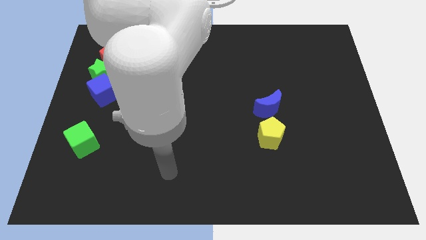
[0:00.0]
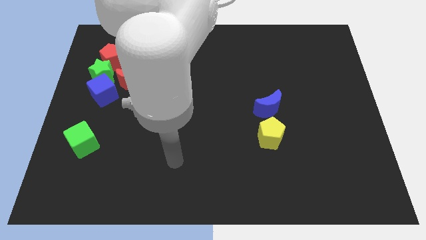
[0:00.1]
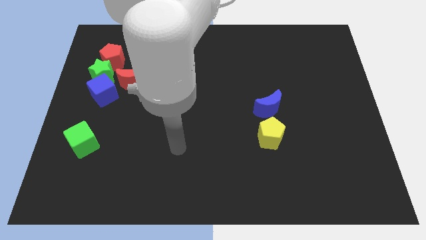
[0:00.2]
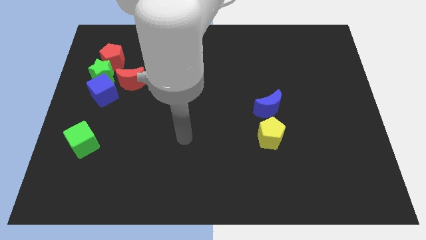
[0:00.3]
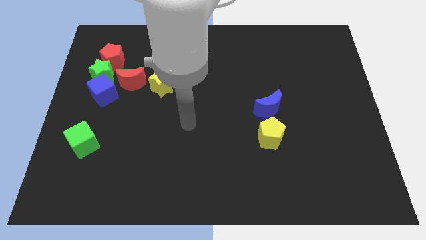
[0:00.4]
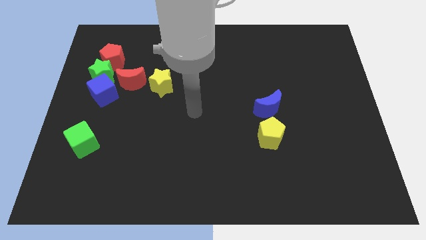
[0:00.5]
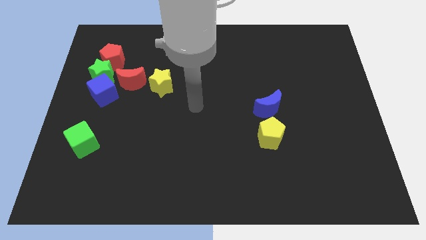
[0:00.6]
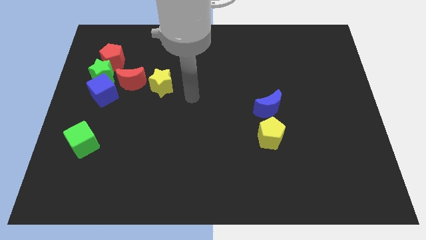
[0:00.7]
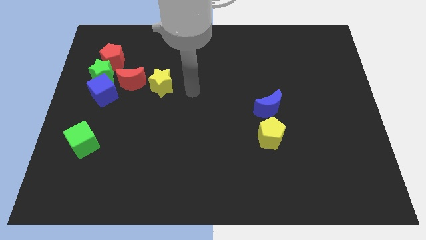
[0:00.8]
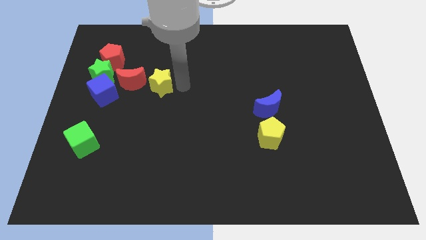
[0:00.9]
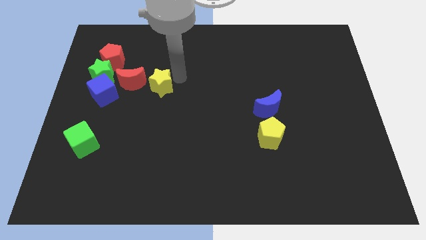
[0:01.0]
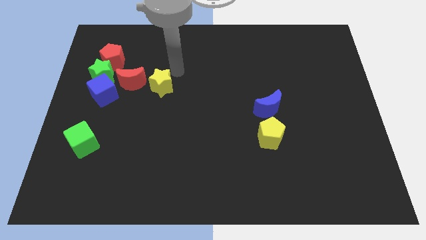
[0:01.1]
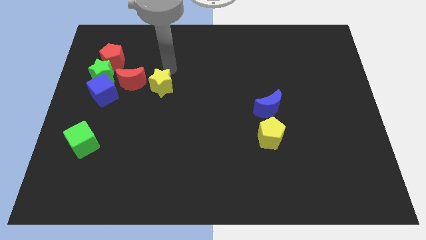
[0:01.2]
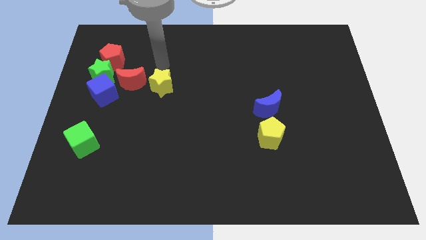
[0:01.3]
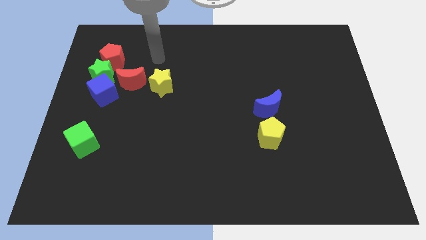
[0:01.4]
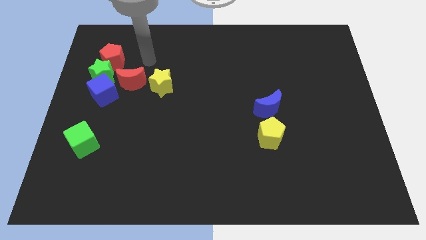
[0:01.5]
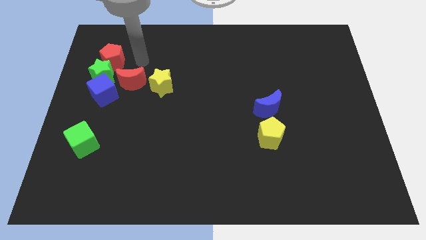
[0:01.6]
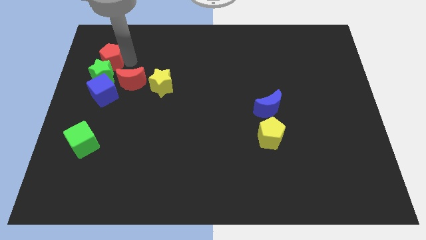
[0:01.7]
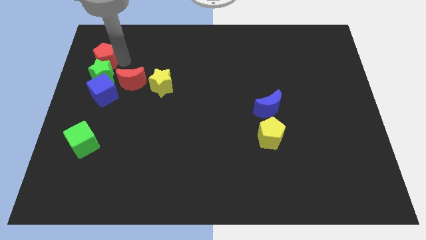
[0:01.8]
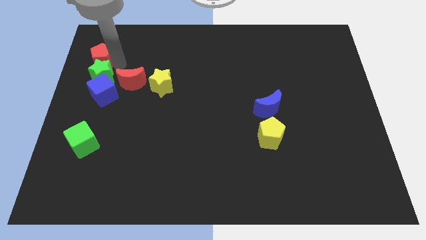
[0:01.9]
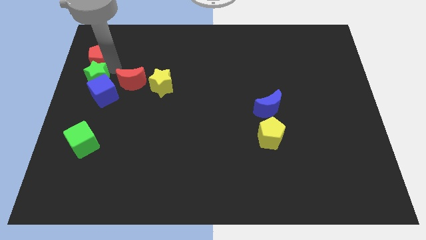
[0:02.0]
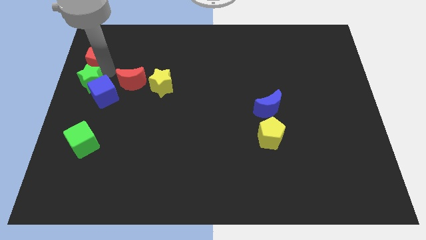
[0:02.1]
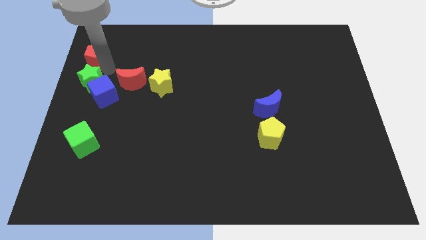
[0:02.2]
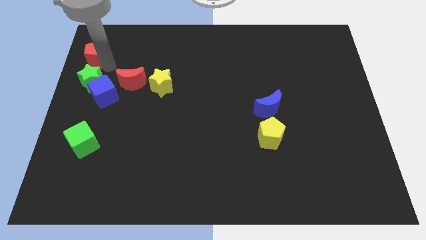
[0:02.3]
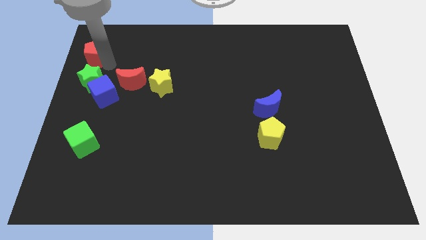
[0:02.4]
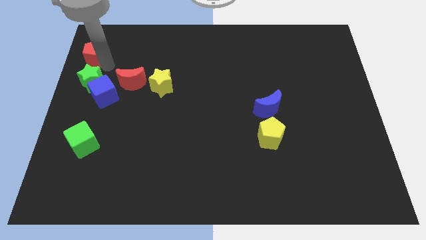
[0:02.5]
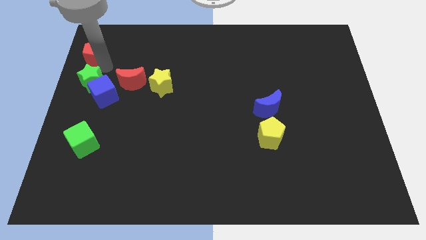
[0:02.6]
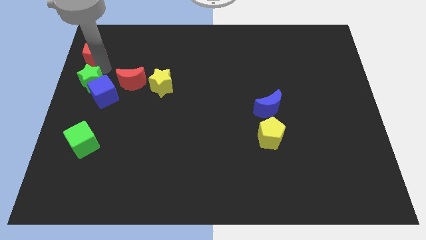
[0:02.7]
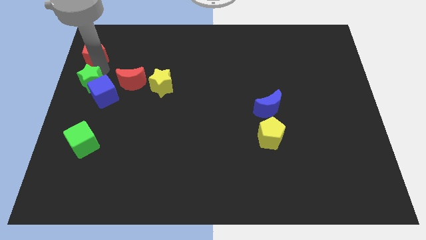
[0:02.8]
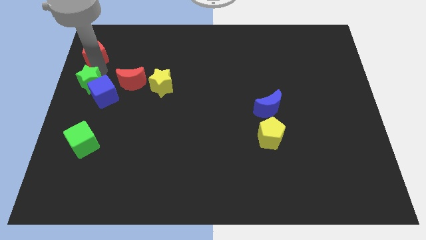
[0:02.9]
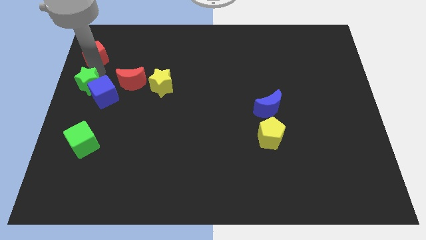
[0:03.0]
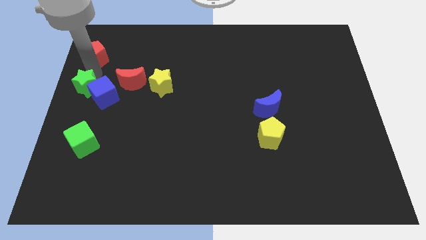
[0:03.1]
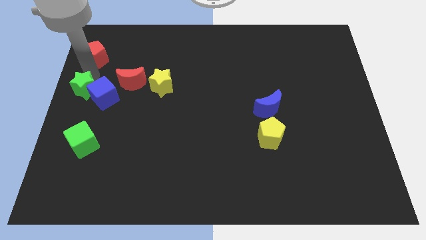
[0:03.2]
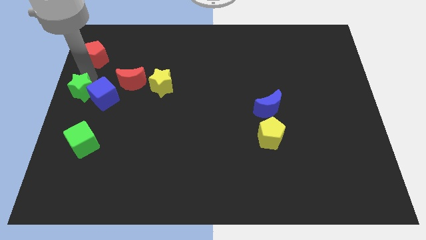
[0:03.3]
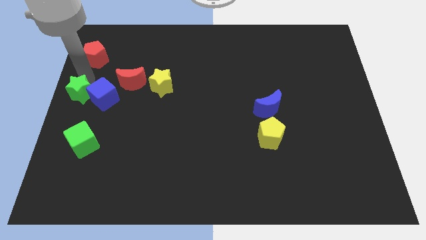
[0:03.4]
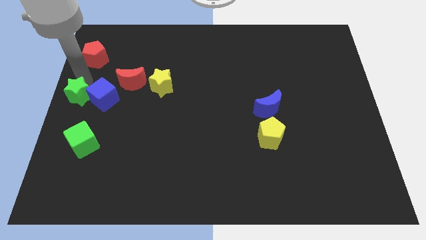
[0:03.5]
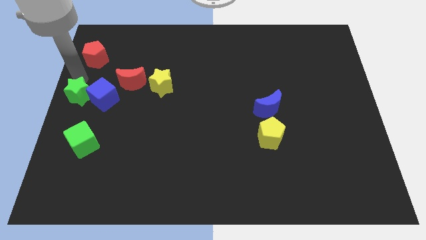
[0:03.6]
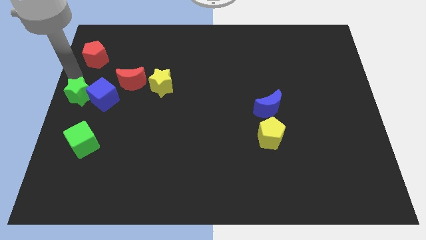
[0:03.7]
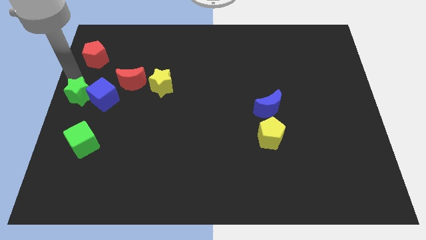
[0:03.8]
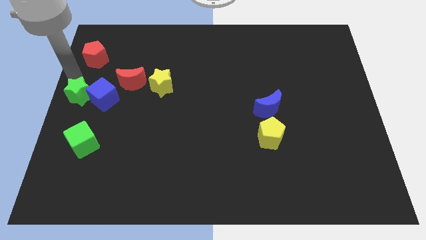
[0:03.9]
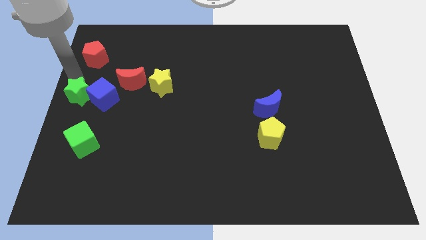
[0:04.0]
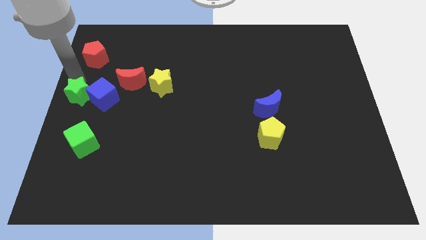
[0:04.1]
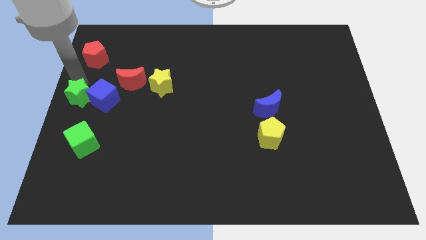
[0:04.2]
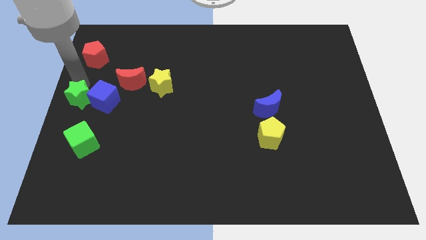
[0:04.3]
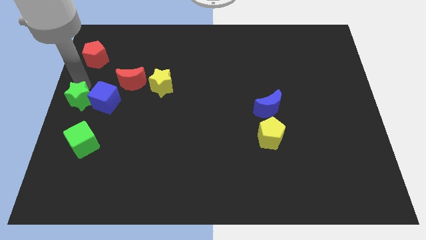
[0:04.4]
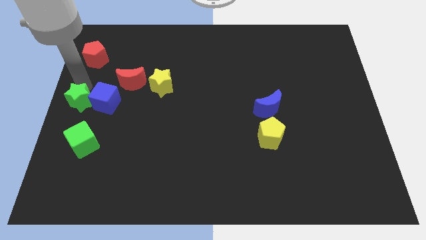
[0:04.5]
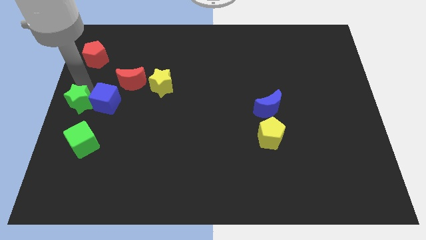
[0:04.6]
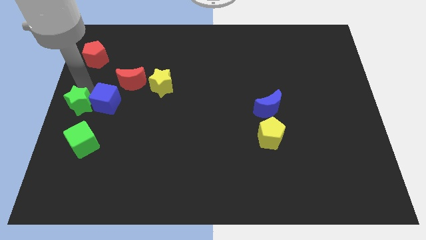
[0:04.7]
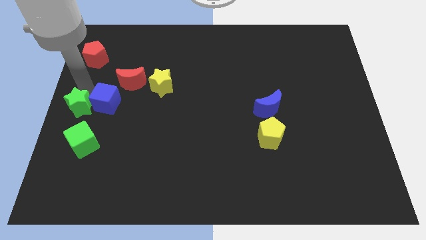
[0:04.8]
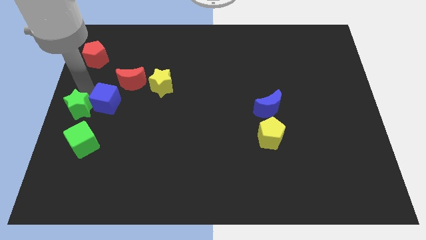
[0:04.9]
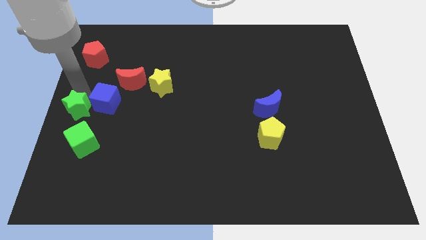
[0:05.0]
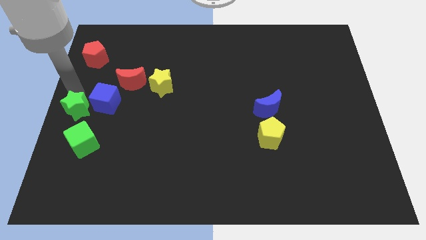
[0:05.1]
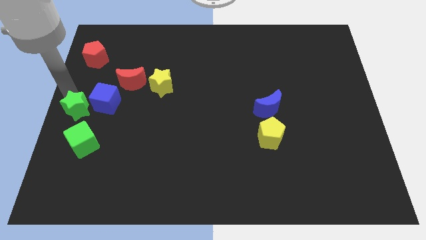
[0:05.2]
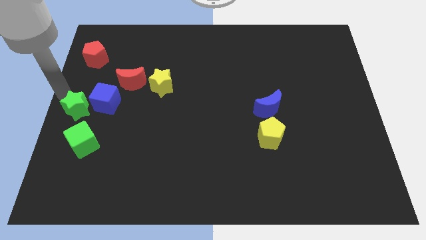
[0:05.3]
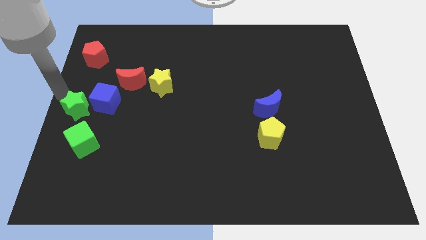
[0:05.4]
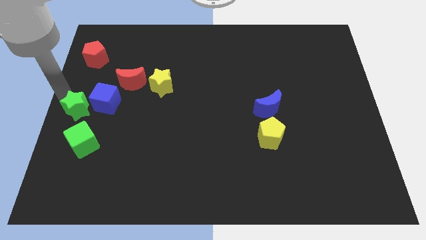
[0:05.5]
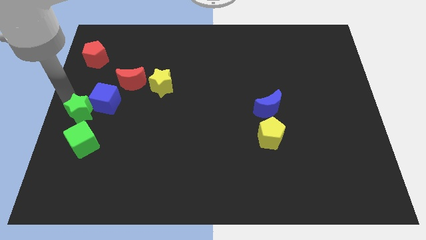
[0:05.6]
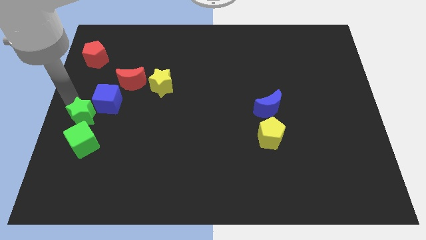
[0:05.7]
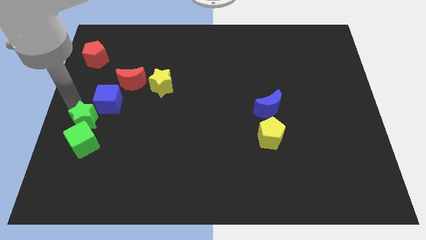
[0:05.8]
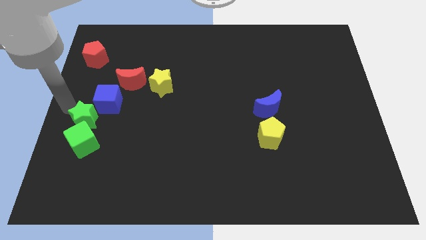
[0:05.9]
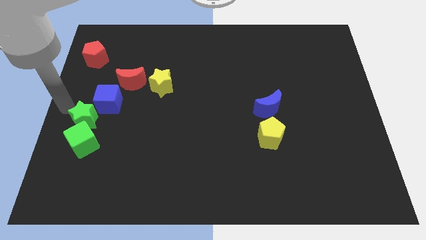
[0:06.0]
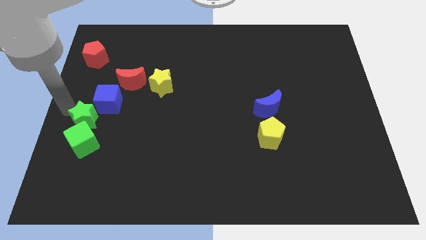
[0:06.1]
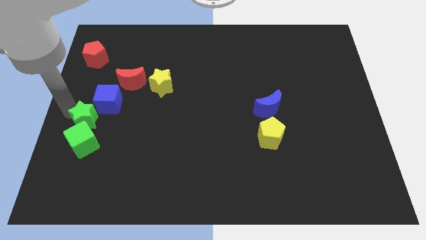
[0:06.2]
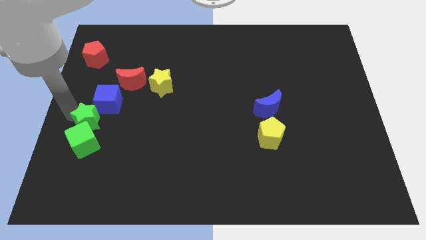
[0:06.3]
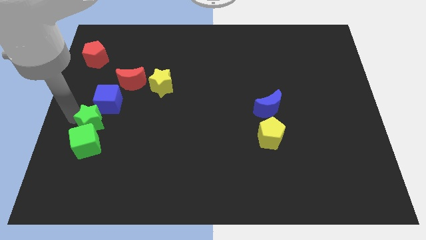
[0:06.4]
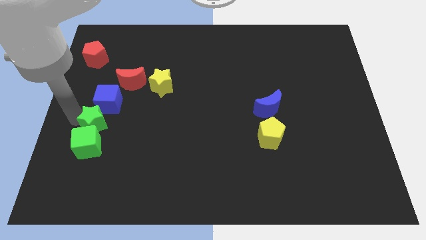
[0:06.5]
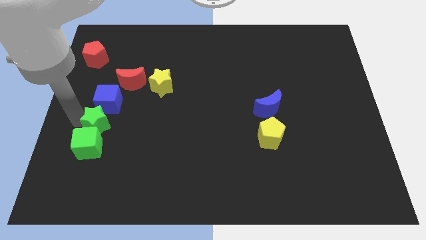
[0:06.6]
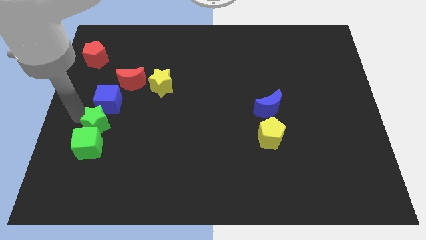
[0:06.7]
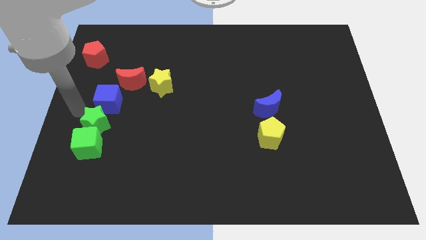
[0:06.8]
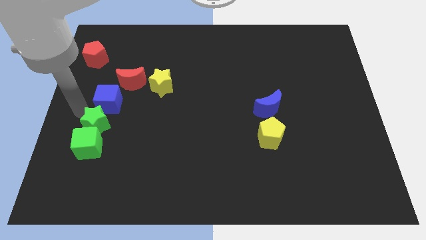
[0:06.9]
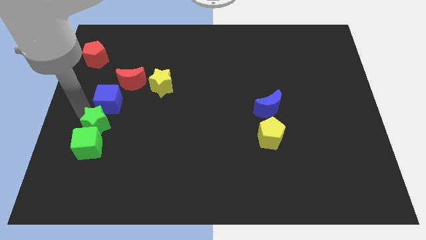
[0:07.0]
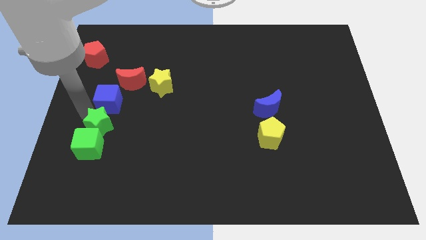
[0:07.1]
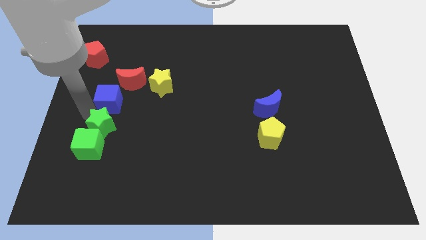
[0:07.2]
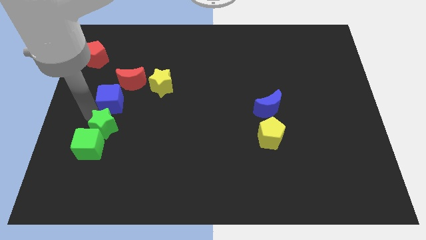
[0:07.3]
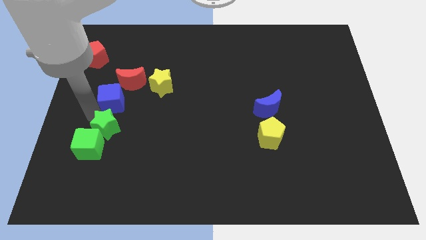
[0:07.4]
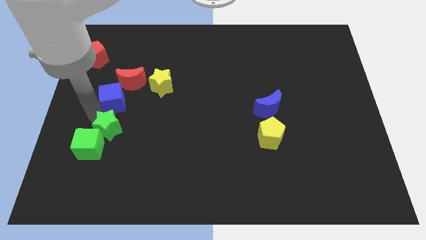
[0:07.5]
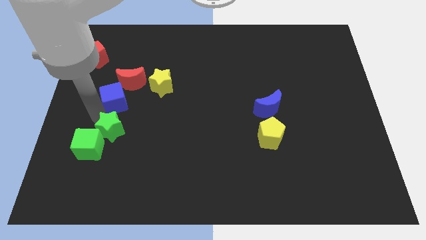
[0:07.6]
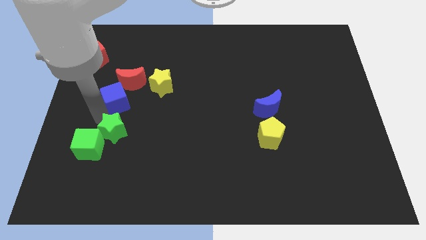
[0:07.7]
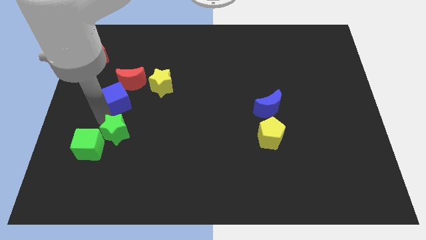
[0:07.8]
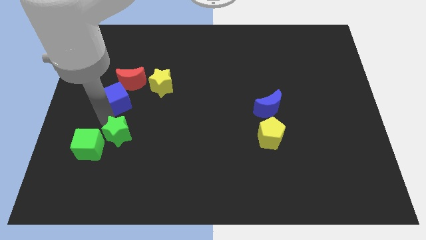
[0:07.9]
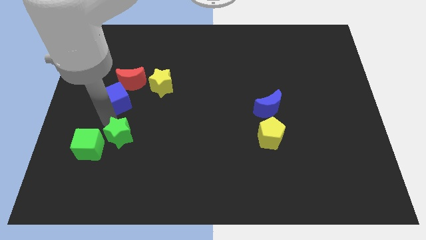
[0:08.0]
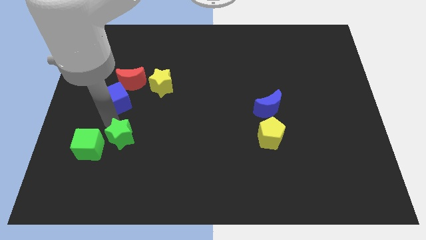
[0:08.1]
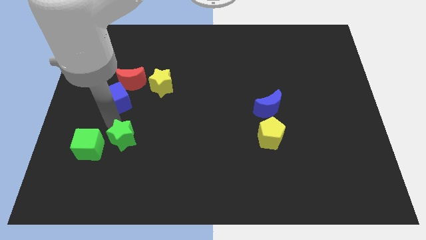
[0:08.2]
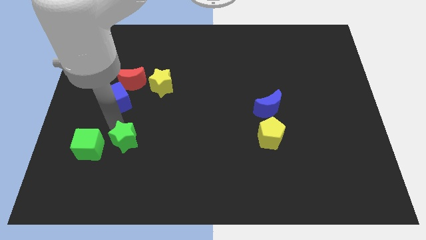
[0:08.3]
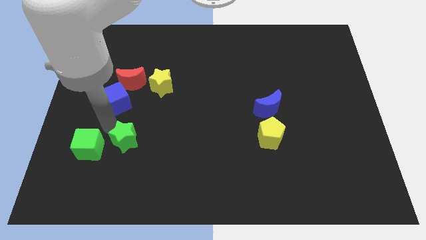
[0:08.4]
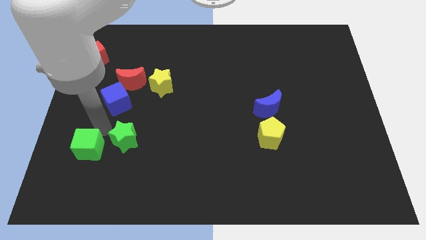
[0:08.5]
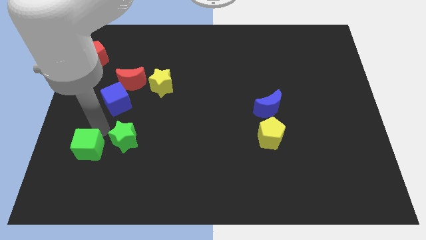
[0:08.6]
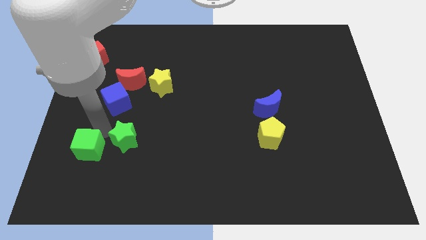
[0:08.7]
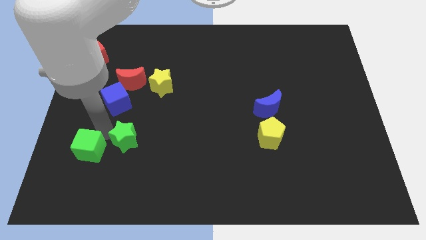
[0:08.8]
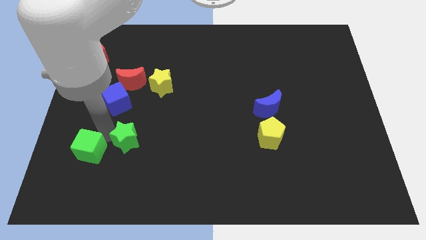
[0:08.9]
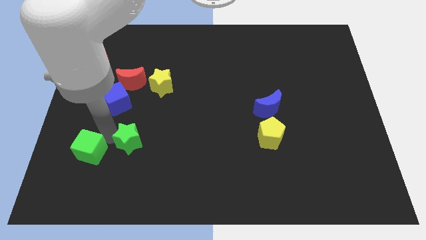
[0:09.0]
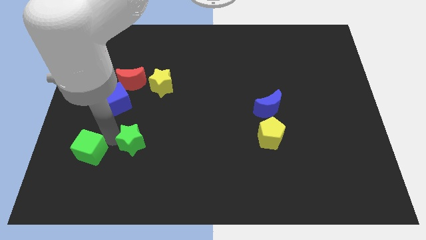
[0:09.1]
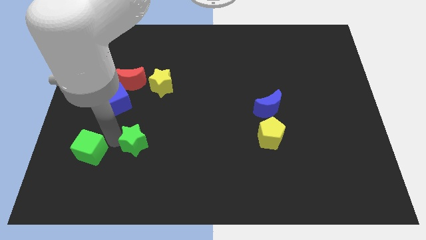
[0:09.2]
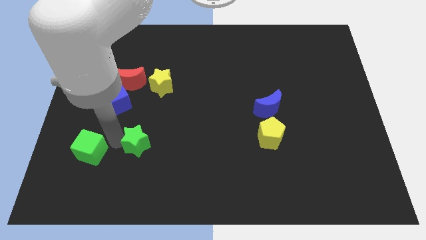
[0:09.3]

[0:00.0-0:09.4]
move the green star down and then right
